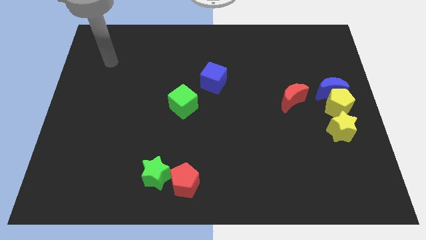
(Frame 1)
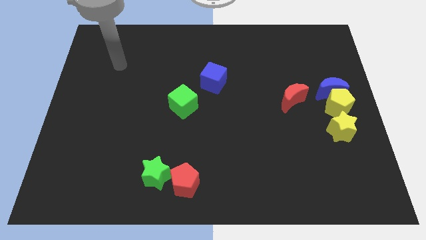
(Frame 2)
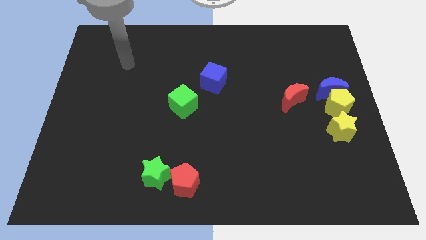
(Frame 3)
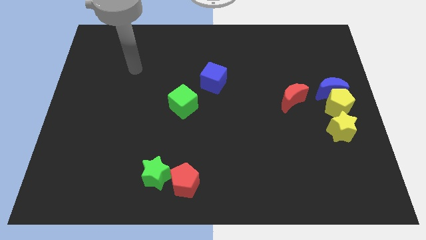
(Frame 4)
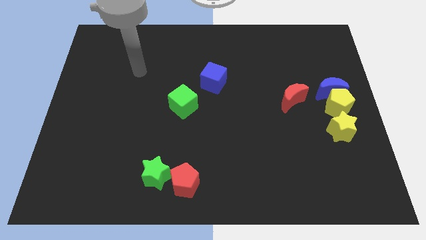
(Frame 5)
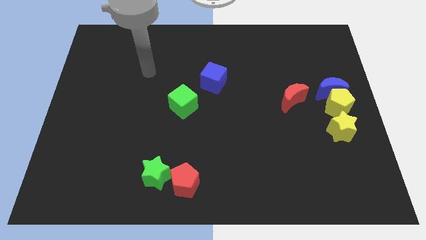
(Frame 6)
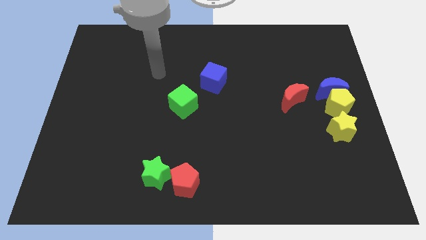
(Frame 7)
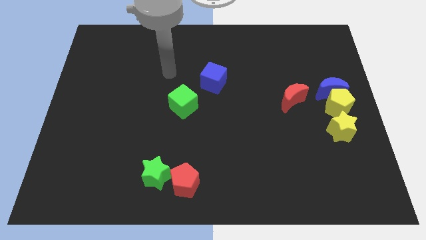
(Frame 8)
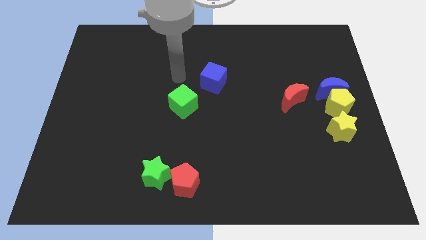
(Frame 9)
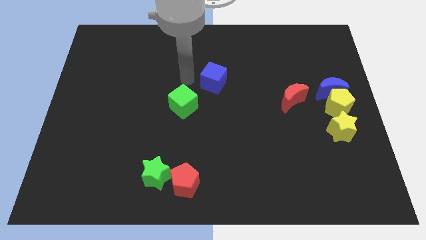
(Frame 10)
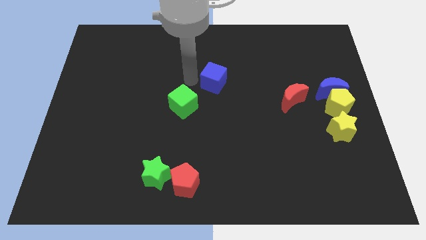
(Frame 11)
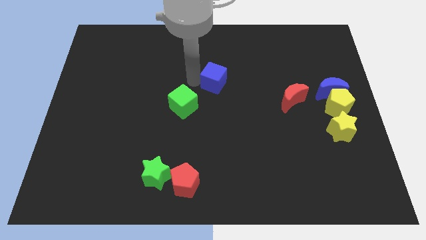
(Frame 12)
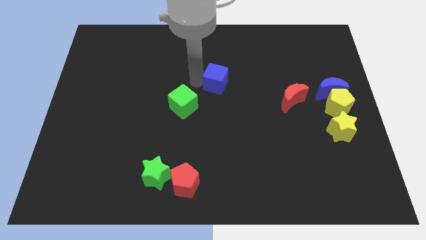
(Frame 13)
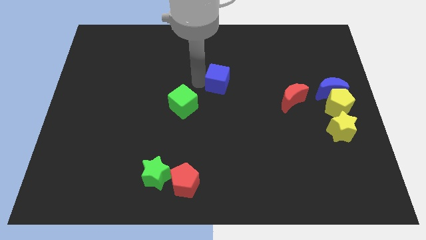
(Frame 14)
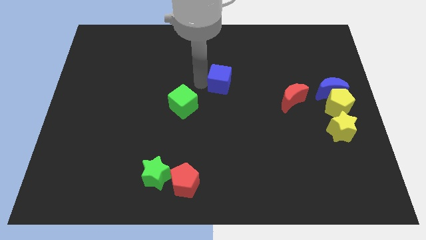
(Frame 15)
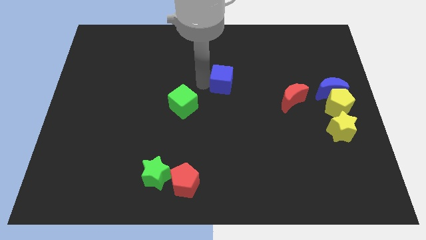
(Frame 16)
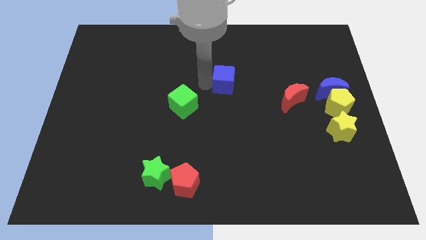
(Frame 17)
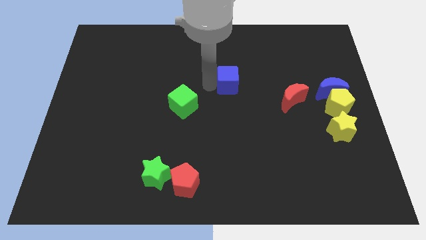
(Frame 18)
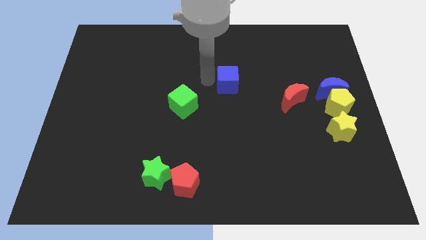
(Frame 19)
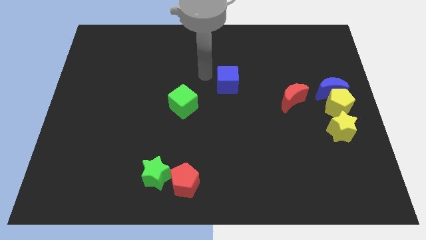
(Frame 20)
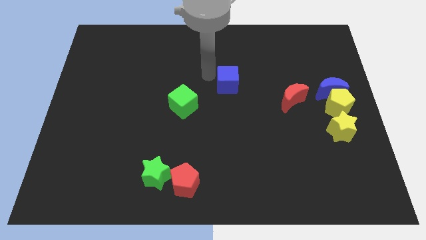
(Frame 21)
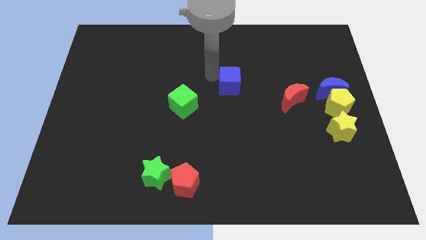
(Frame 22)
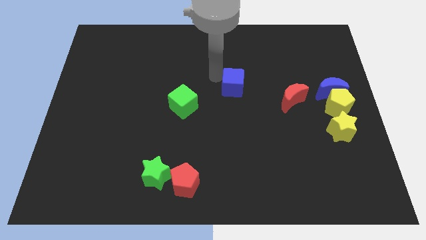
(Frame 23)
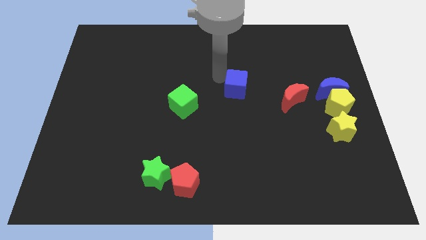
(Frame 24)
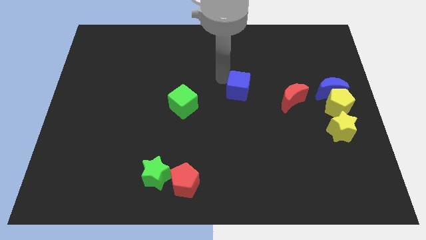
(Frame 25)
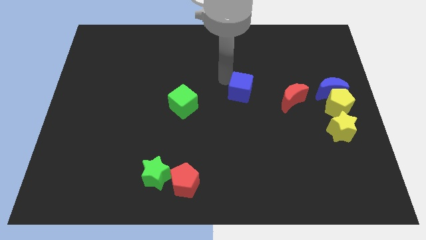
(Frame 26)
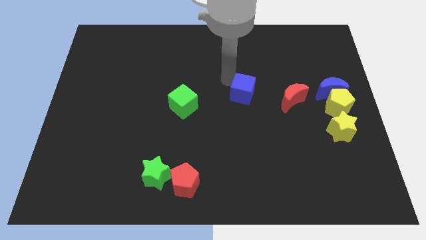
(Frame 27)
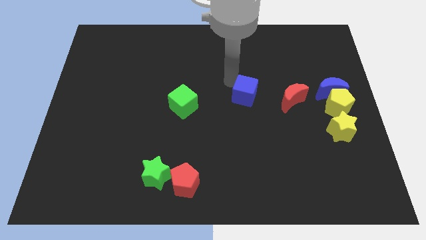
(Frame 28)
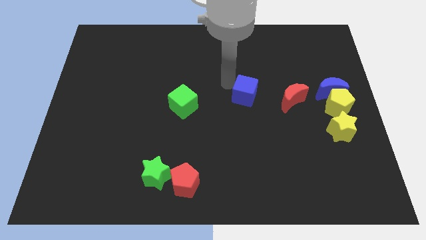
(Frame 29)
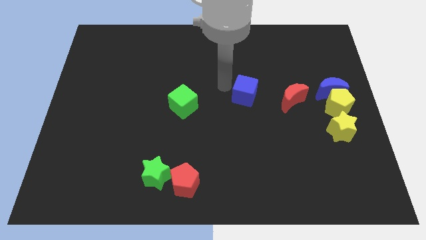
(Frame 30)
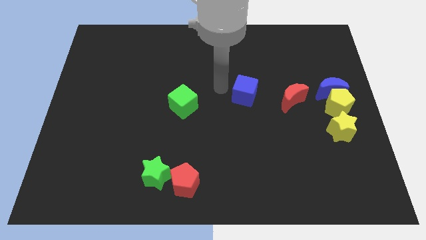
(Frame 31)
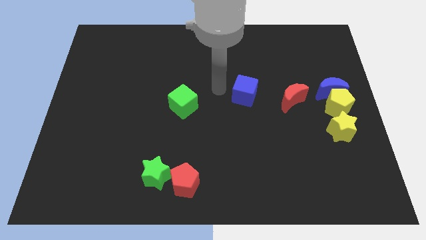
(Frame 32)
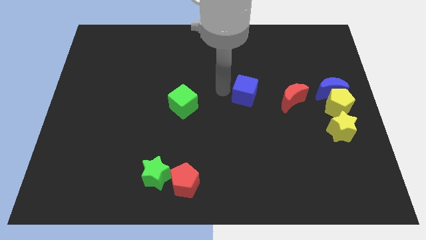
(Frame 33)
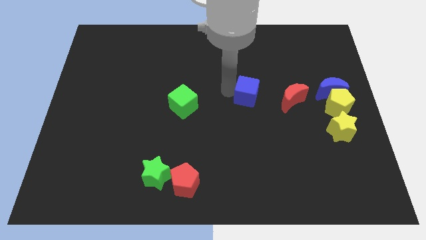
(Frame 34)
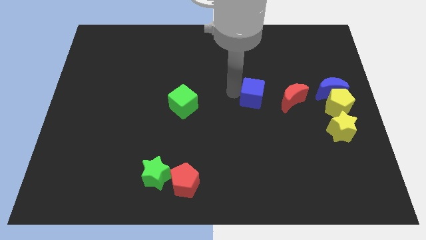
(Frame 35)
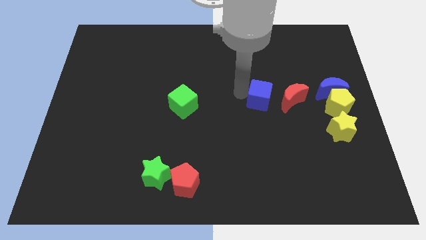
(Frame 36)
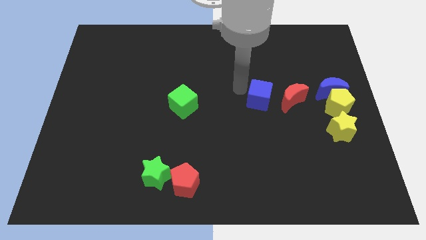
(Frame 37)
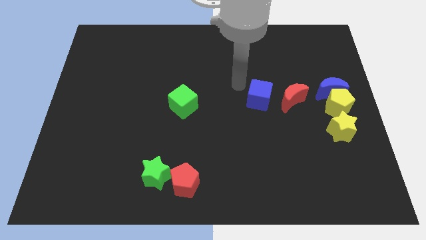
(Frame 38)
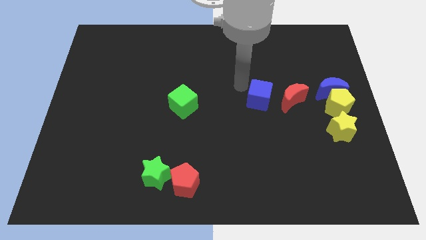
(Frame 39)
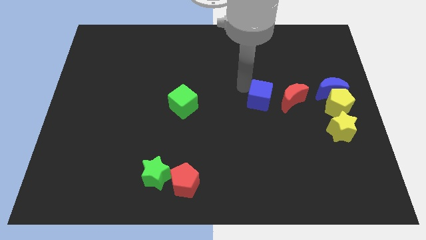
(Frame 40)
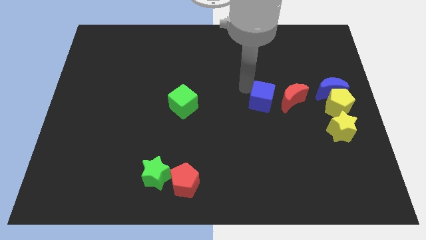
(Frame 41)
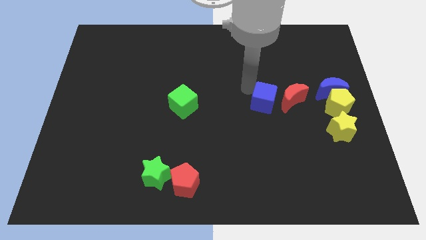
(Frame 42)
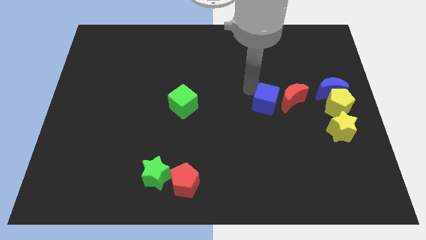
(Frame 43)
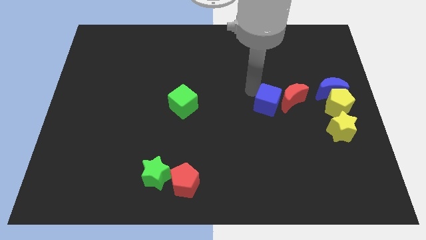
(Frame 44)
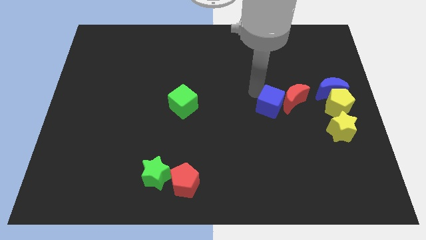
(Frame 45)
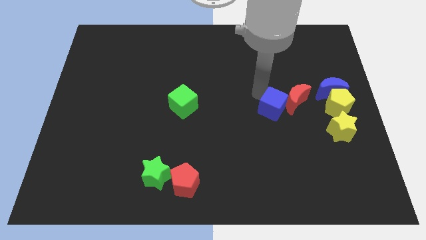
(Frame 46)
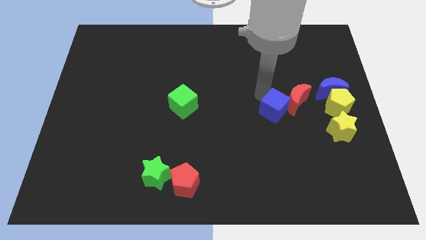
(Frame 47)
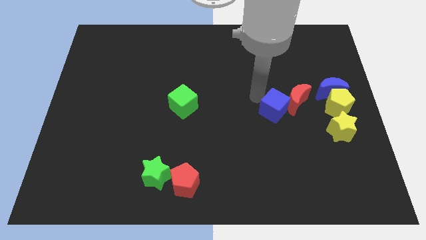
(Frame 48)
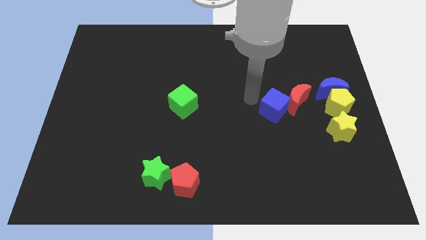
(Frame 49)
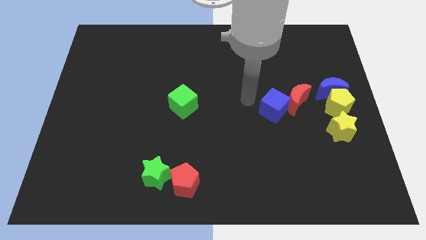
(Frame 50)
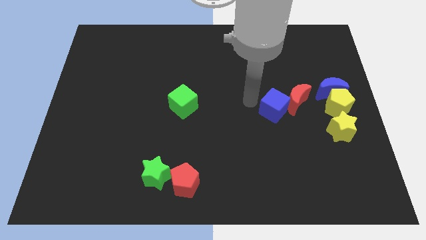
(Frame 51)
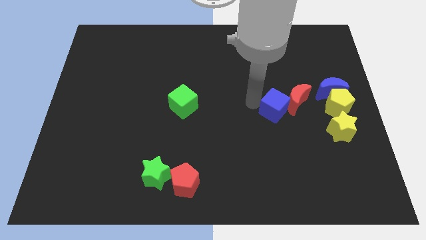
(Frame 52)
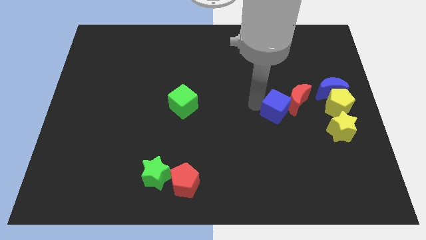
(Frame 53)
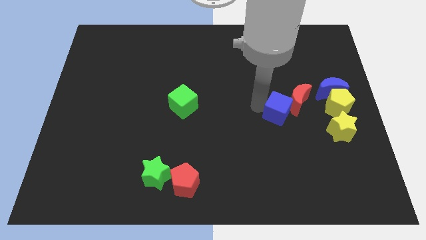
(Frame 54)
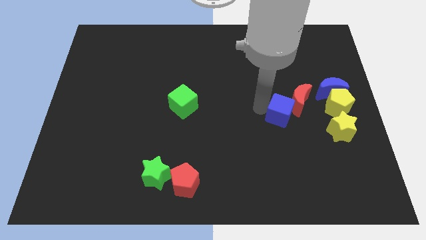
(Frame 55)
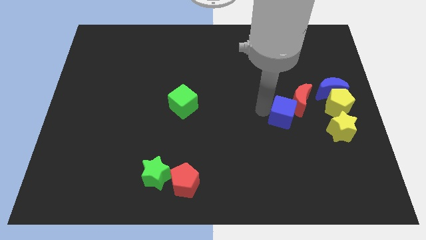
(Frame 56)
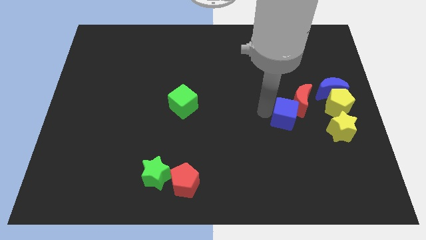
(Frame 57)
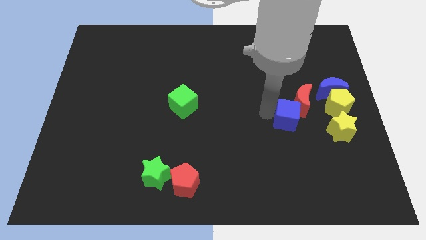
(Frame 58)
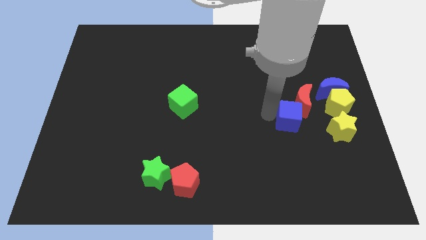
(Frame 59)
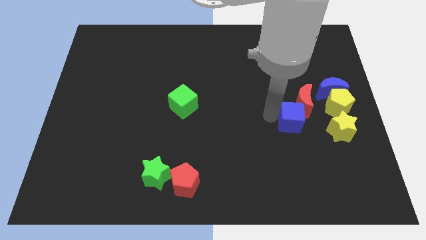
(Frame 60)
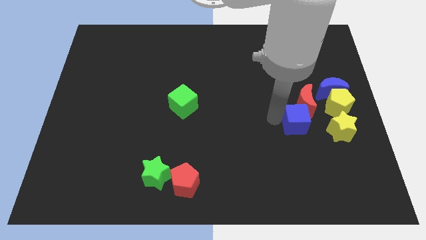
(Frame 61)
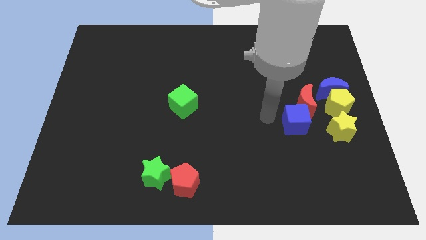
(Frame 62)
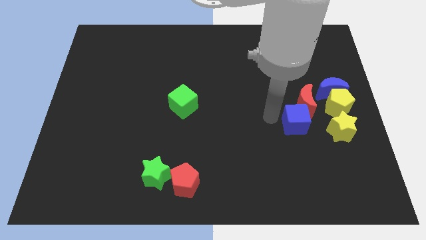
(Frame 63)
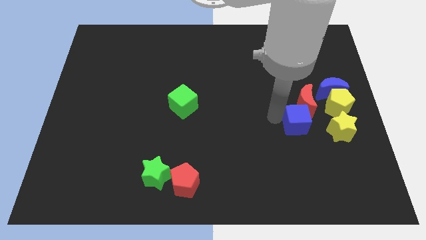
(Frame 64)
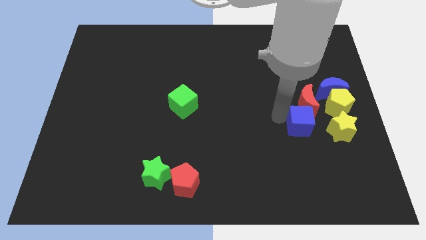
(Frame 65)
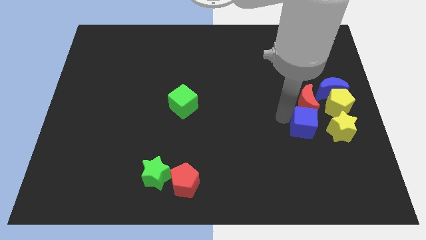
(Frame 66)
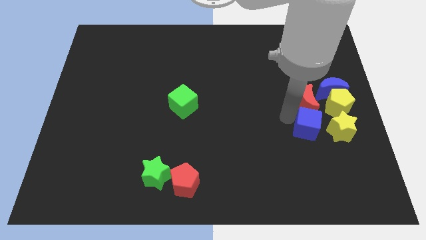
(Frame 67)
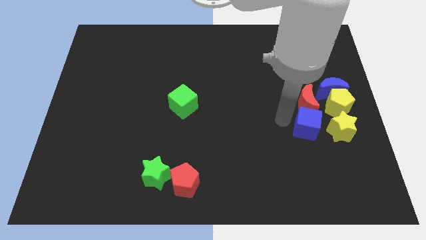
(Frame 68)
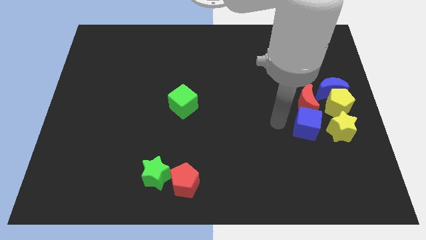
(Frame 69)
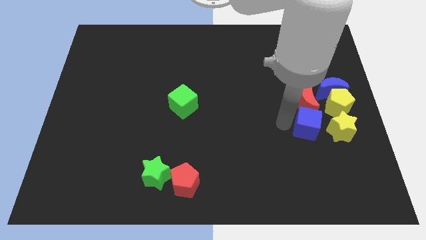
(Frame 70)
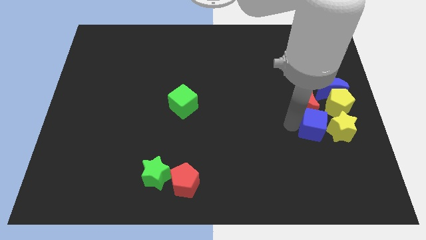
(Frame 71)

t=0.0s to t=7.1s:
slide the blue cube close to the yellow star
